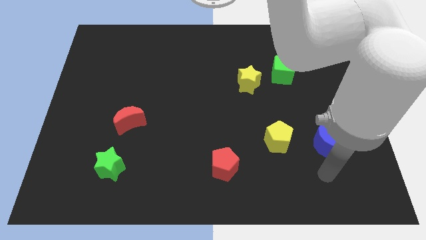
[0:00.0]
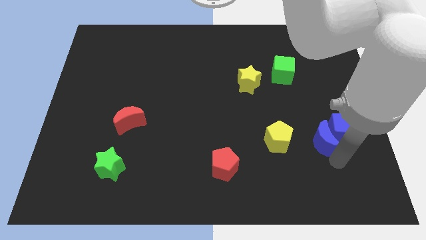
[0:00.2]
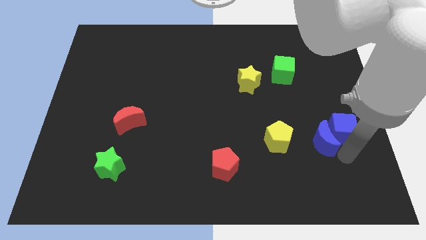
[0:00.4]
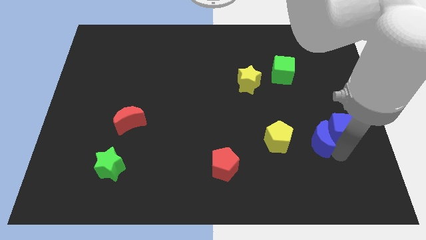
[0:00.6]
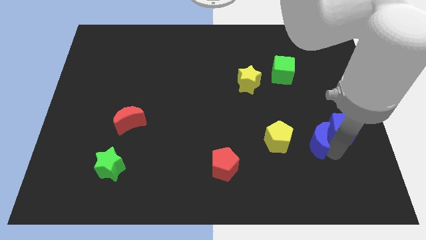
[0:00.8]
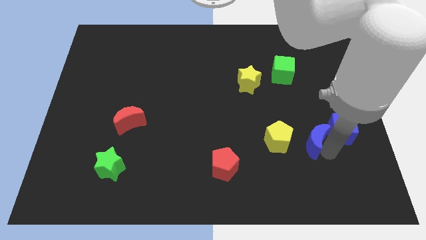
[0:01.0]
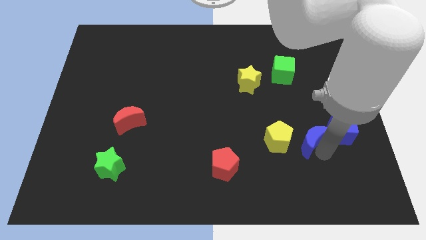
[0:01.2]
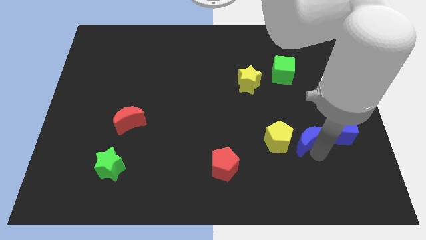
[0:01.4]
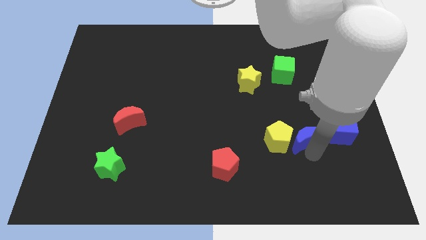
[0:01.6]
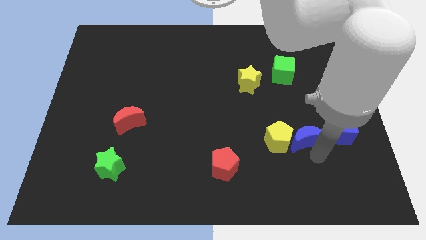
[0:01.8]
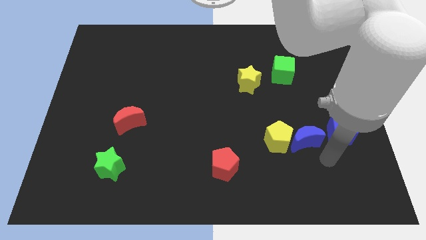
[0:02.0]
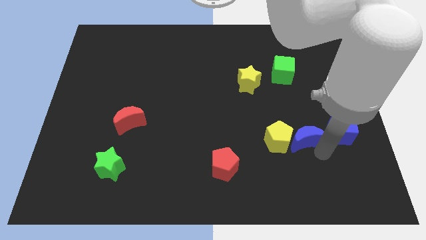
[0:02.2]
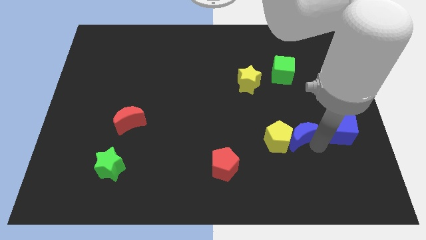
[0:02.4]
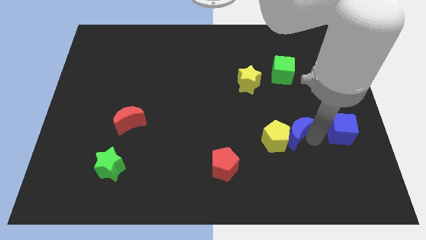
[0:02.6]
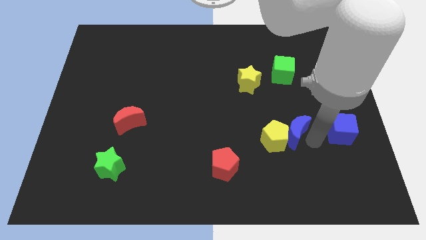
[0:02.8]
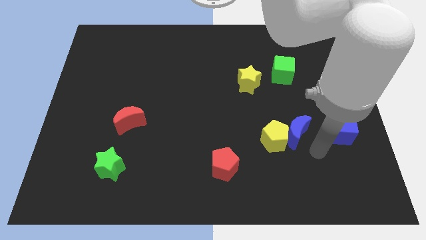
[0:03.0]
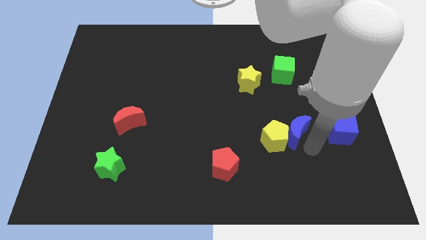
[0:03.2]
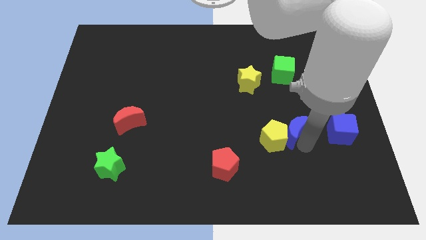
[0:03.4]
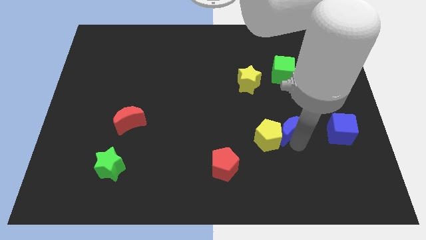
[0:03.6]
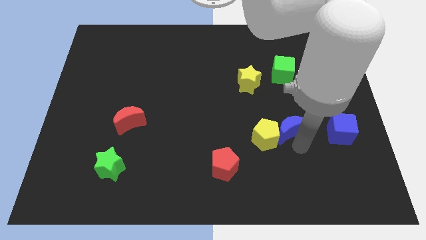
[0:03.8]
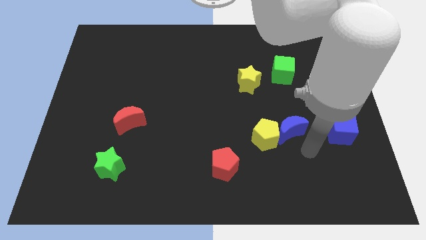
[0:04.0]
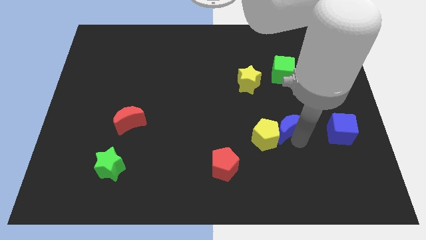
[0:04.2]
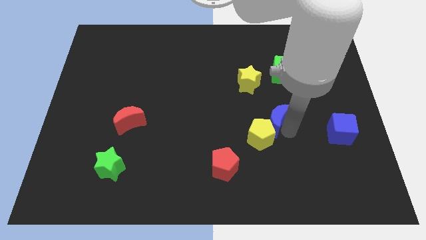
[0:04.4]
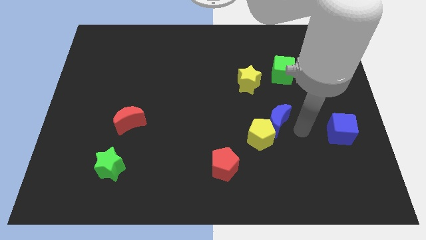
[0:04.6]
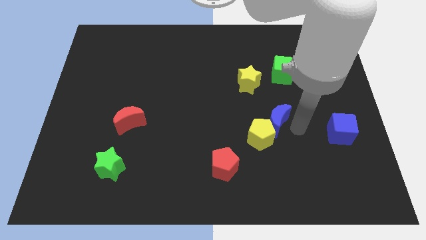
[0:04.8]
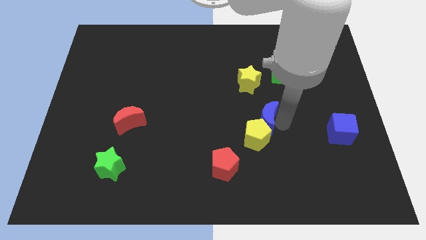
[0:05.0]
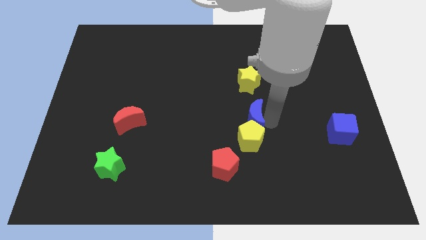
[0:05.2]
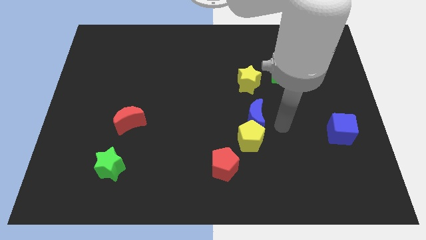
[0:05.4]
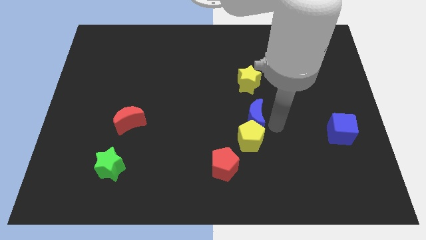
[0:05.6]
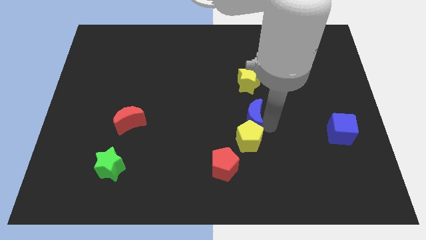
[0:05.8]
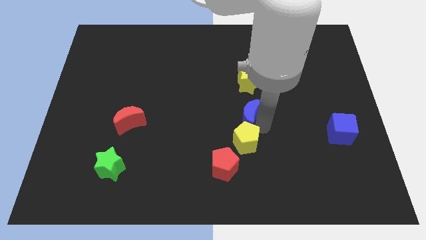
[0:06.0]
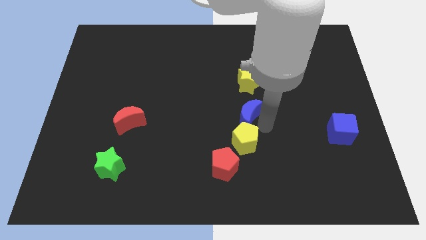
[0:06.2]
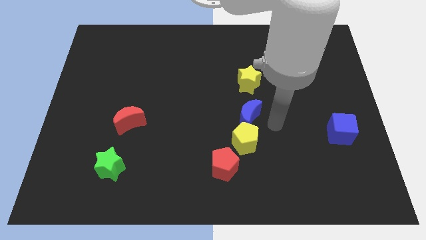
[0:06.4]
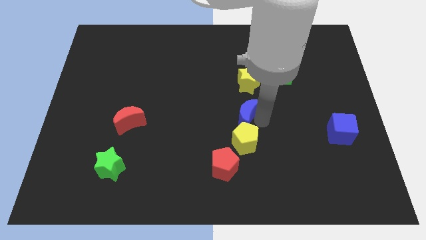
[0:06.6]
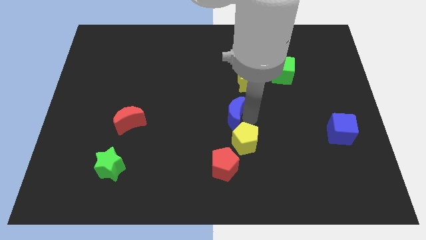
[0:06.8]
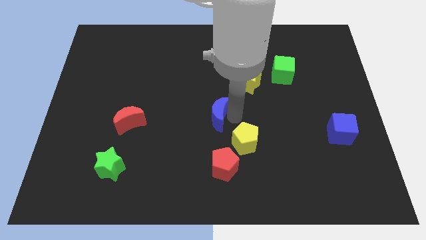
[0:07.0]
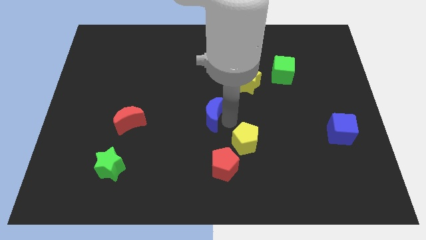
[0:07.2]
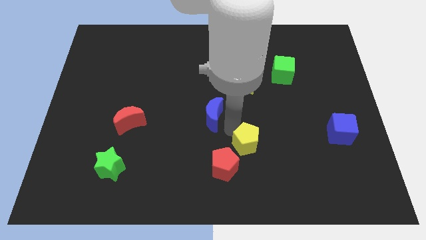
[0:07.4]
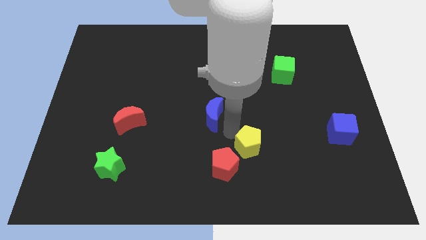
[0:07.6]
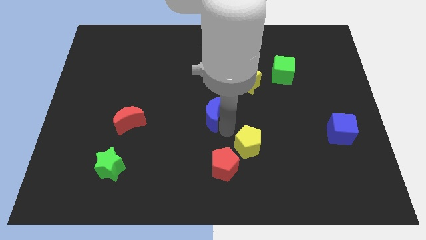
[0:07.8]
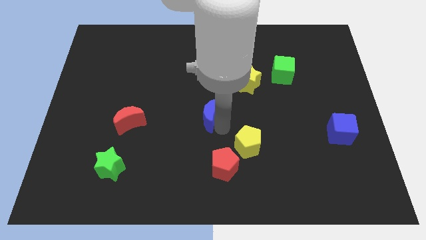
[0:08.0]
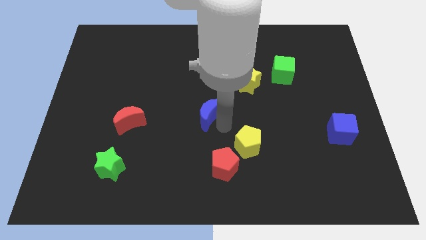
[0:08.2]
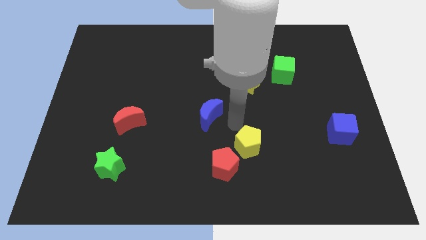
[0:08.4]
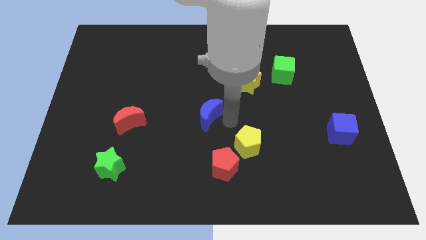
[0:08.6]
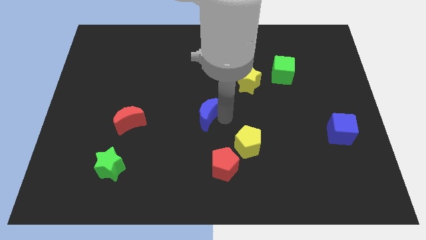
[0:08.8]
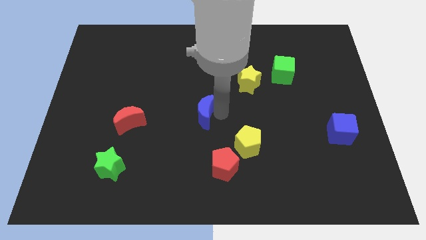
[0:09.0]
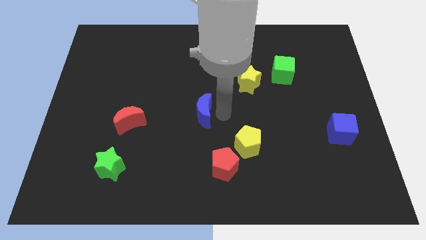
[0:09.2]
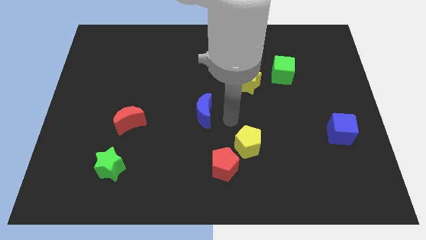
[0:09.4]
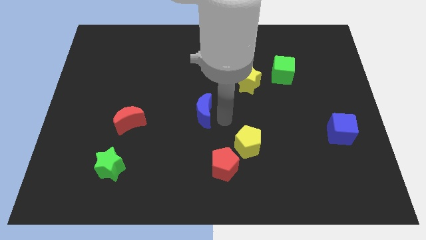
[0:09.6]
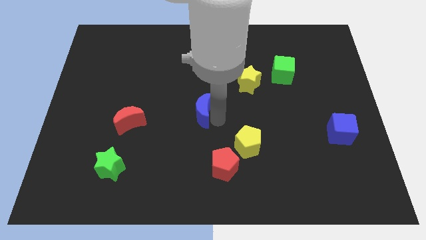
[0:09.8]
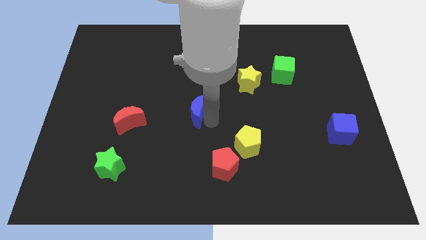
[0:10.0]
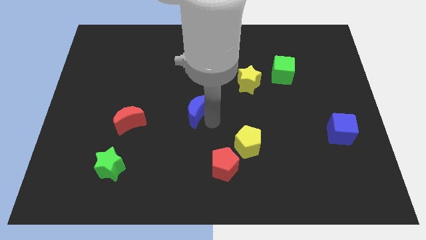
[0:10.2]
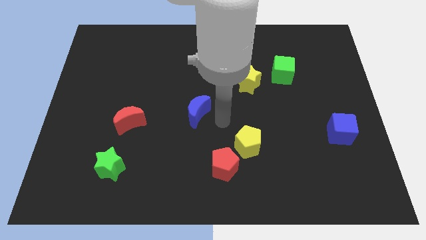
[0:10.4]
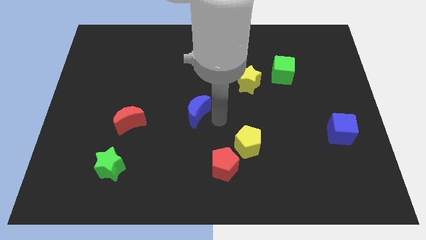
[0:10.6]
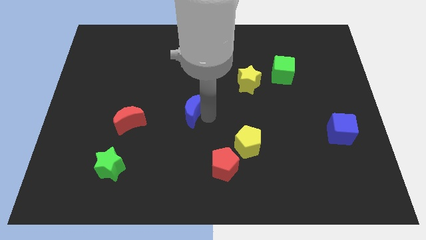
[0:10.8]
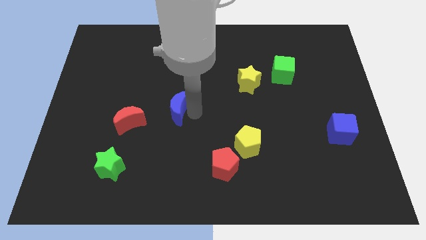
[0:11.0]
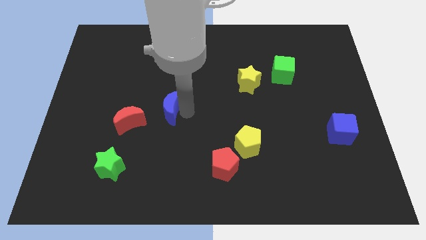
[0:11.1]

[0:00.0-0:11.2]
move the blue moon to the top right of the red moon
